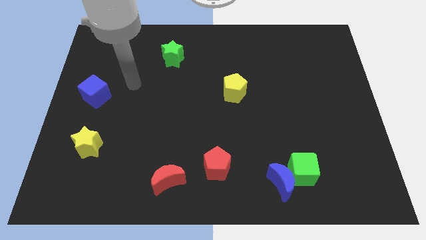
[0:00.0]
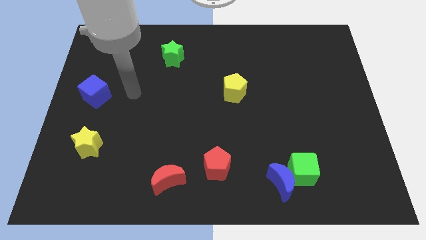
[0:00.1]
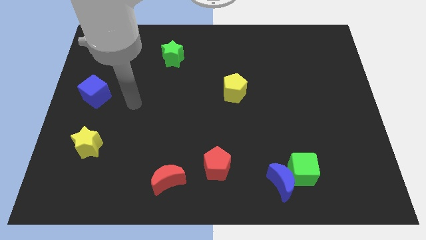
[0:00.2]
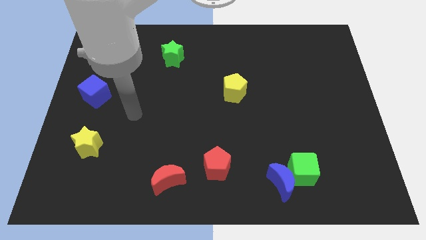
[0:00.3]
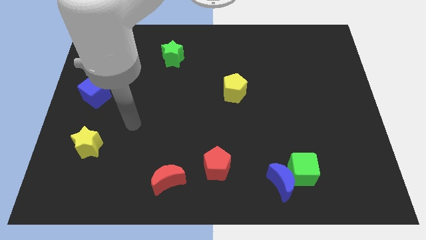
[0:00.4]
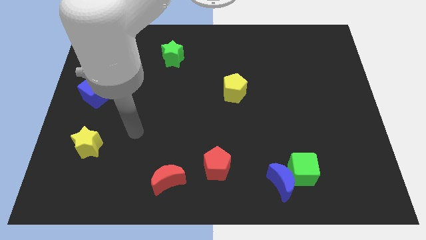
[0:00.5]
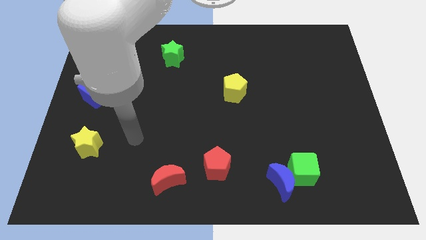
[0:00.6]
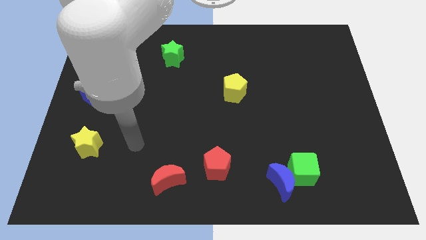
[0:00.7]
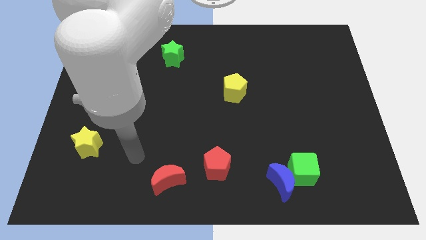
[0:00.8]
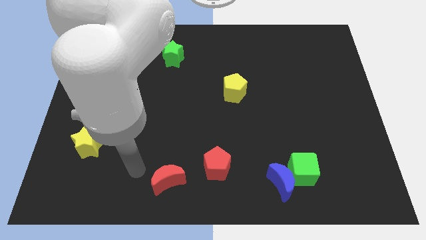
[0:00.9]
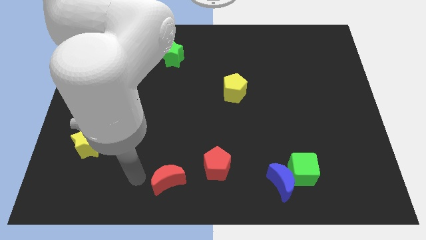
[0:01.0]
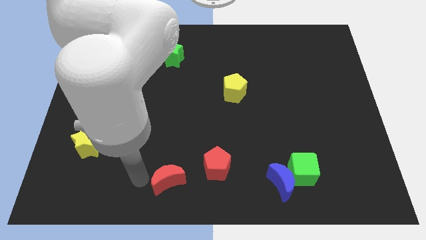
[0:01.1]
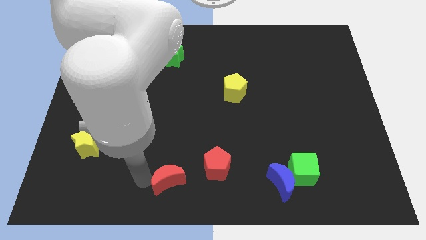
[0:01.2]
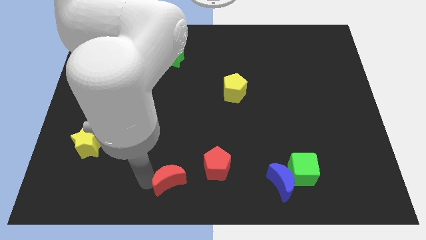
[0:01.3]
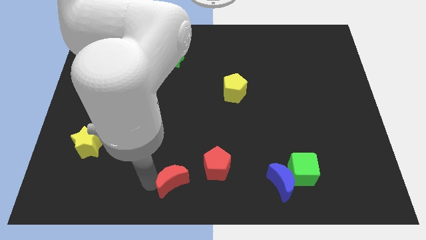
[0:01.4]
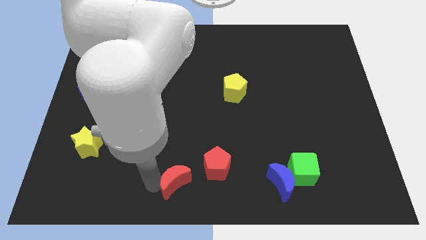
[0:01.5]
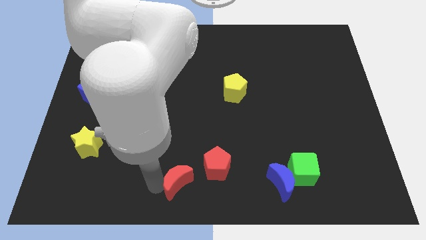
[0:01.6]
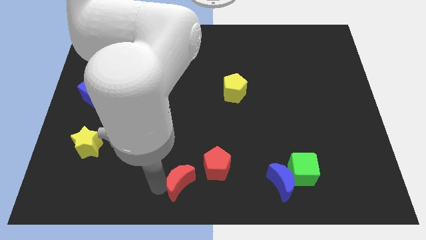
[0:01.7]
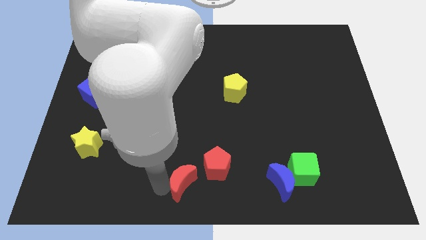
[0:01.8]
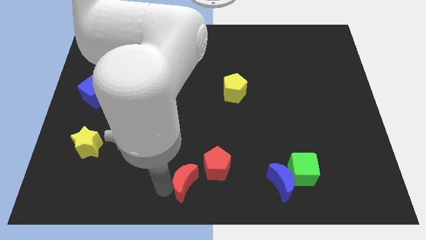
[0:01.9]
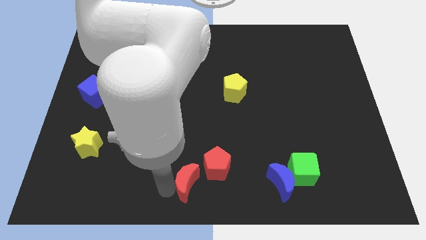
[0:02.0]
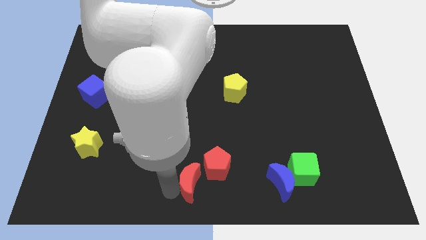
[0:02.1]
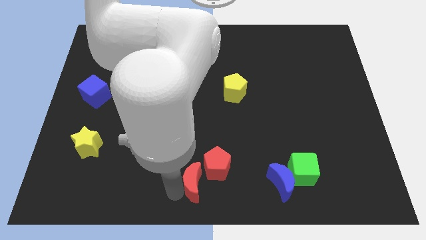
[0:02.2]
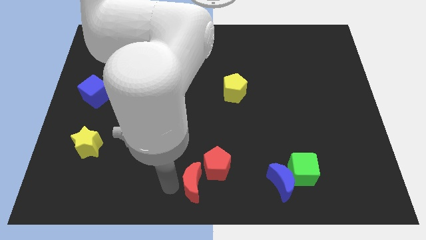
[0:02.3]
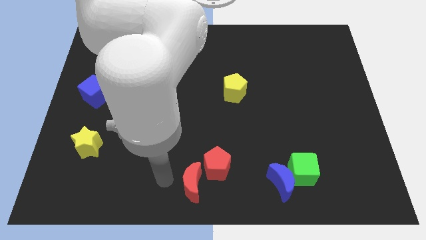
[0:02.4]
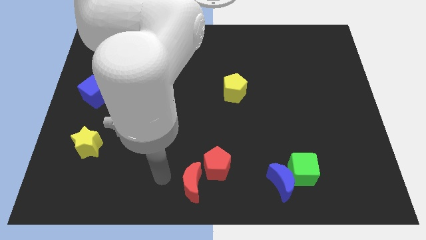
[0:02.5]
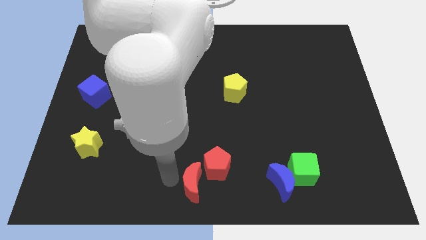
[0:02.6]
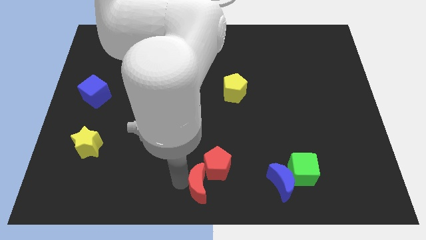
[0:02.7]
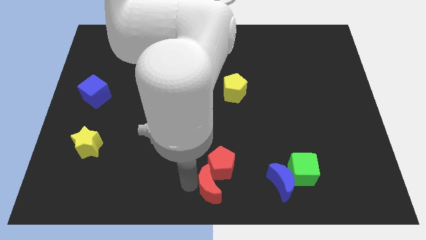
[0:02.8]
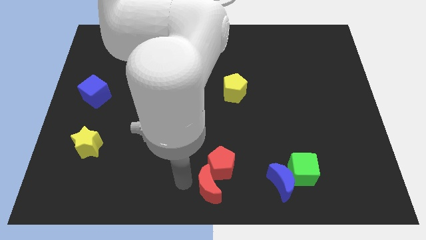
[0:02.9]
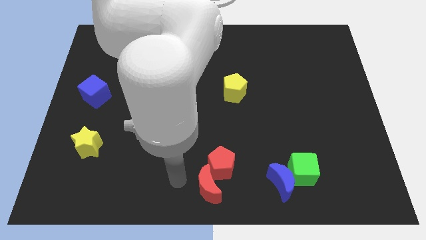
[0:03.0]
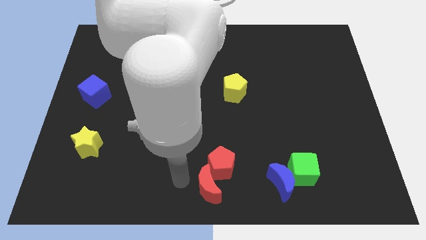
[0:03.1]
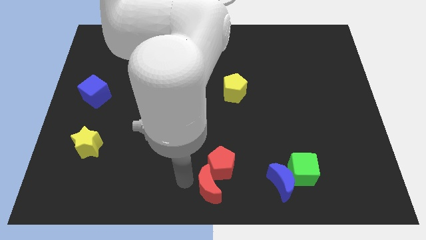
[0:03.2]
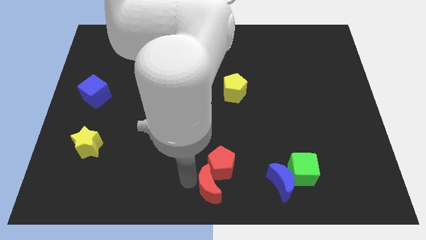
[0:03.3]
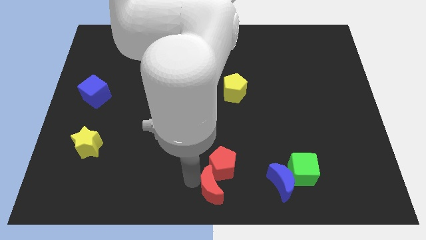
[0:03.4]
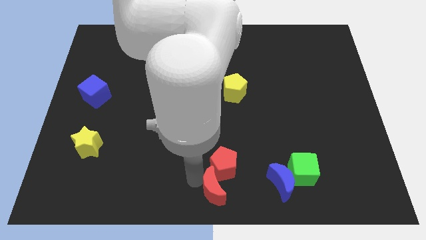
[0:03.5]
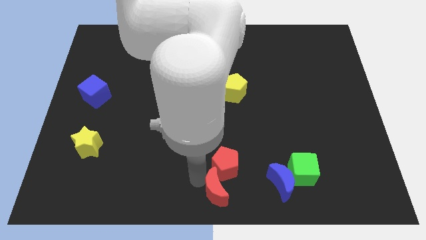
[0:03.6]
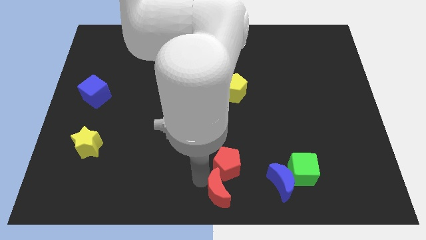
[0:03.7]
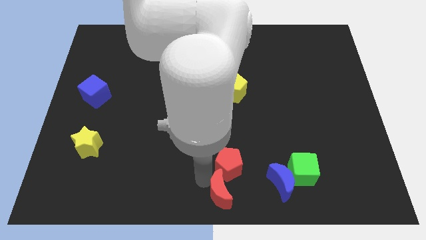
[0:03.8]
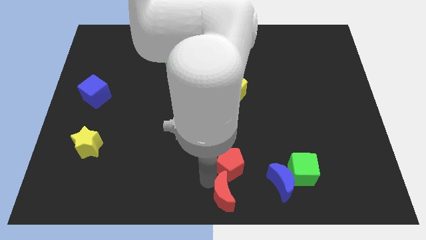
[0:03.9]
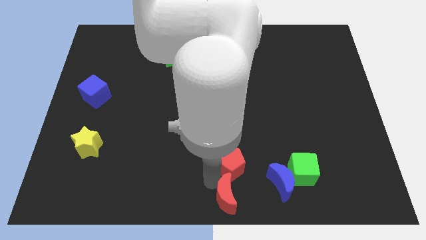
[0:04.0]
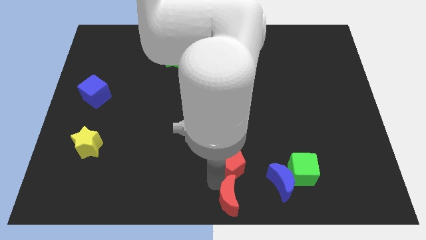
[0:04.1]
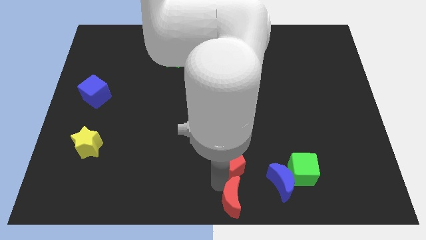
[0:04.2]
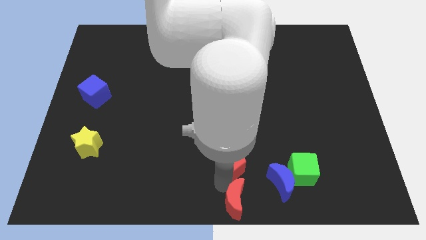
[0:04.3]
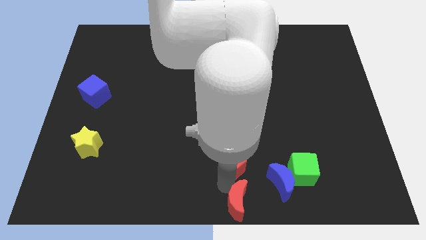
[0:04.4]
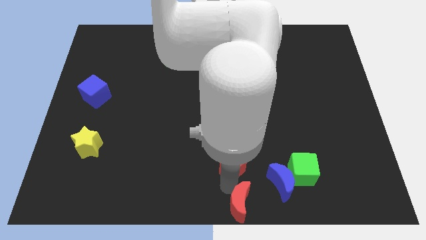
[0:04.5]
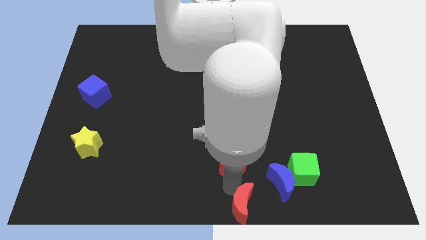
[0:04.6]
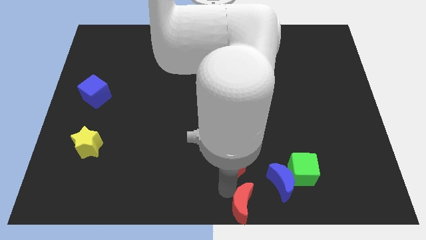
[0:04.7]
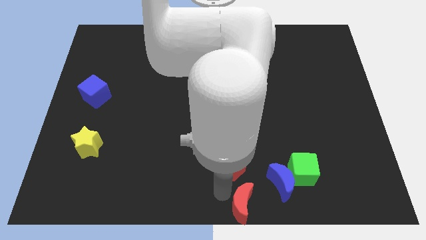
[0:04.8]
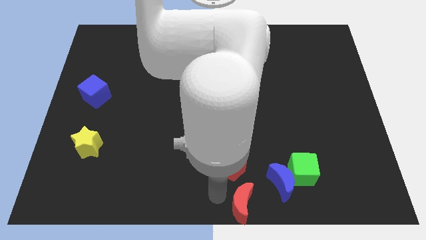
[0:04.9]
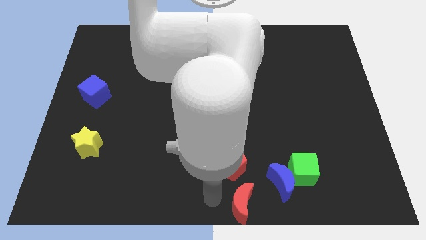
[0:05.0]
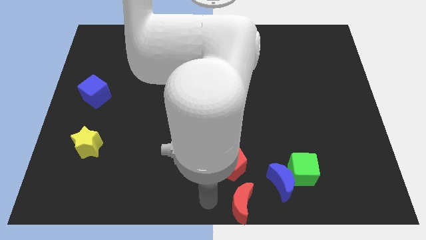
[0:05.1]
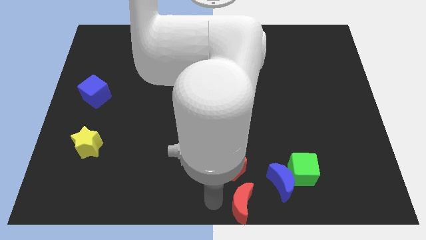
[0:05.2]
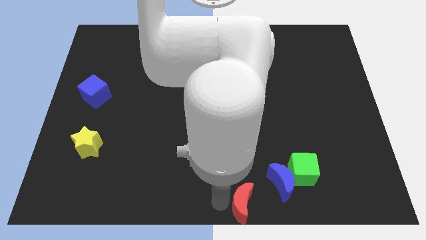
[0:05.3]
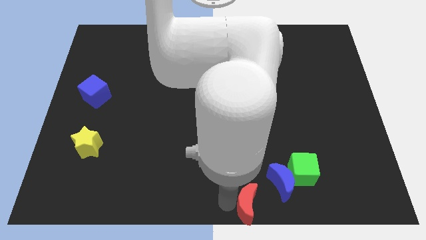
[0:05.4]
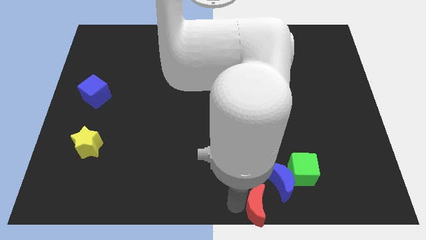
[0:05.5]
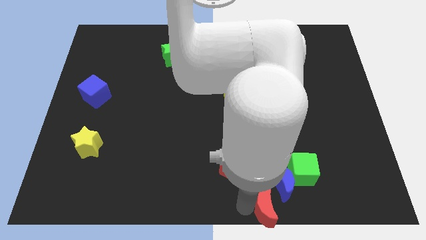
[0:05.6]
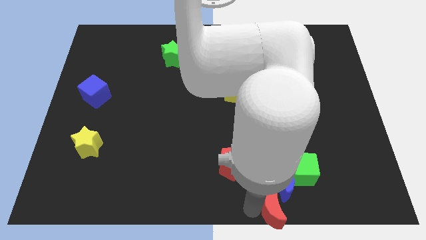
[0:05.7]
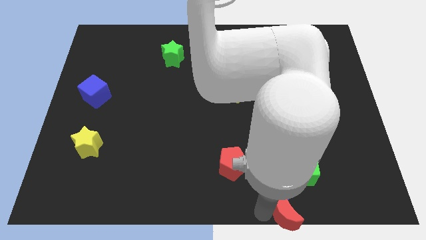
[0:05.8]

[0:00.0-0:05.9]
push the red moon right

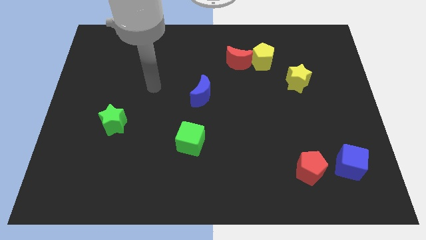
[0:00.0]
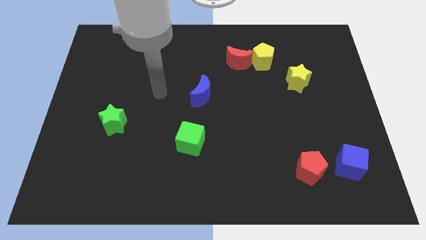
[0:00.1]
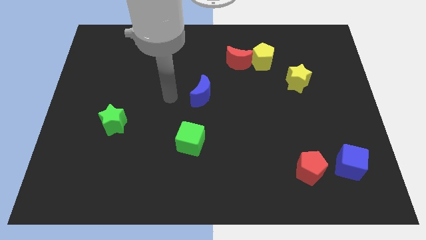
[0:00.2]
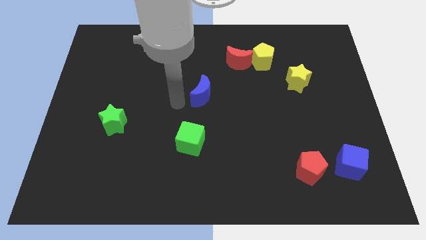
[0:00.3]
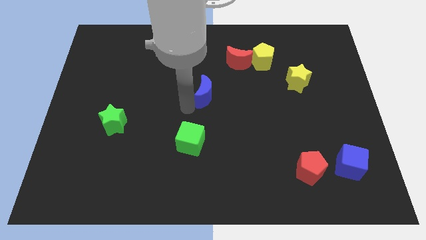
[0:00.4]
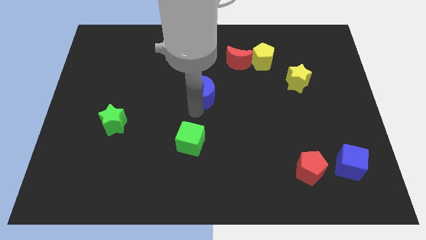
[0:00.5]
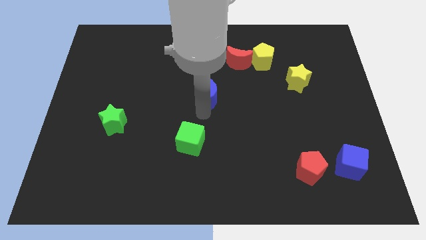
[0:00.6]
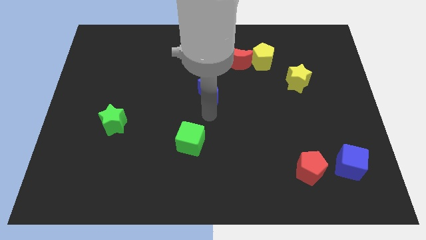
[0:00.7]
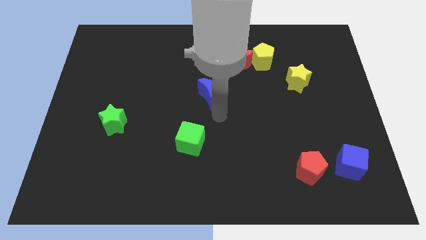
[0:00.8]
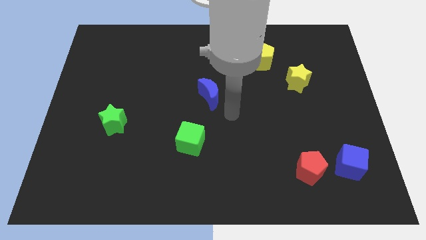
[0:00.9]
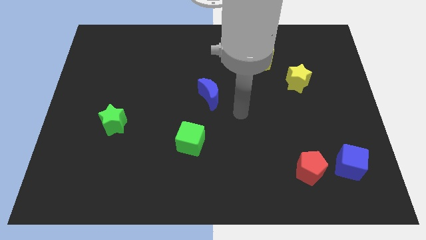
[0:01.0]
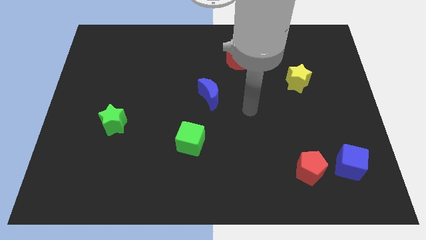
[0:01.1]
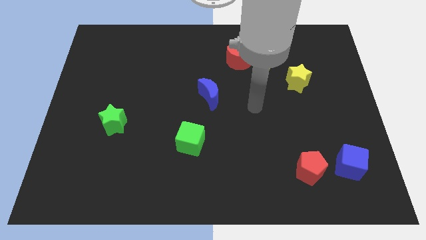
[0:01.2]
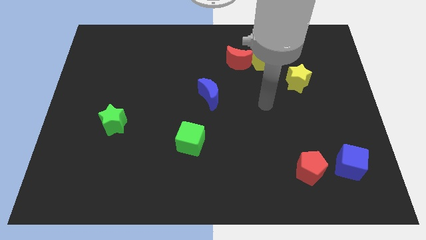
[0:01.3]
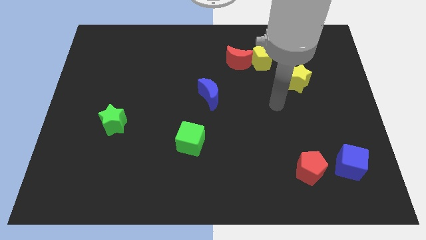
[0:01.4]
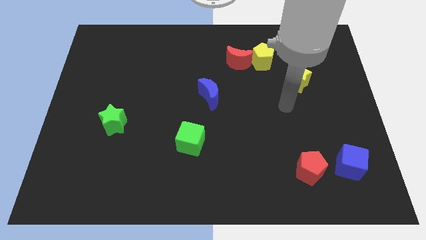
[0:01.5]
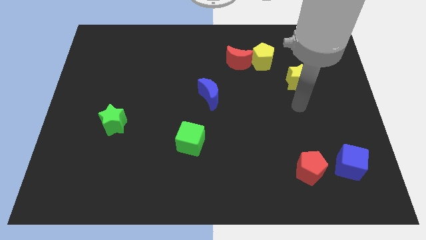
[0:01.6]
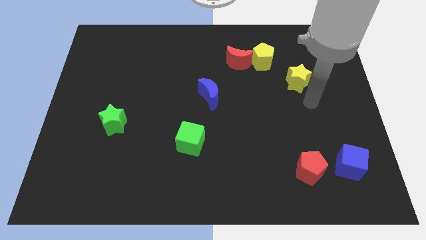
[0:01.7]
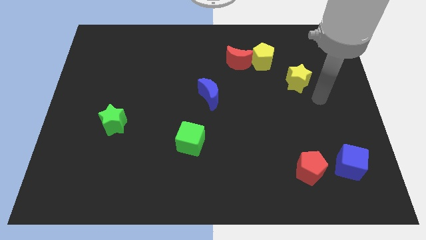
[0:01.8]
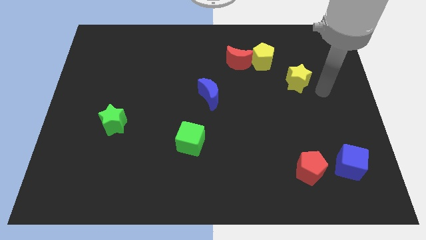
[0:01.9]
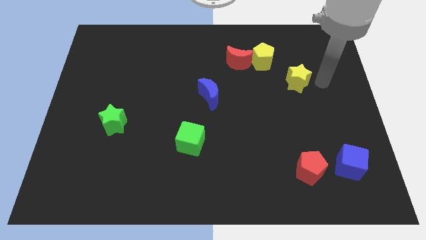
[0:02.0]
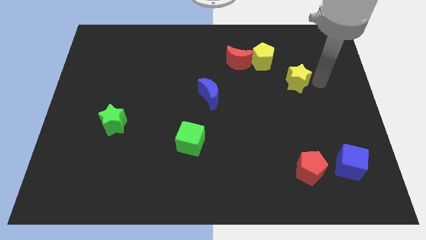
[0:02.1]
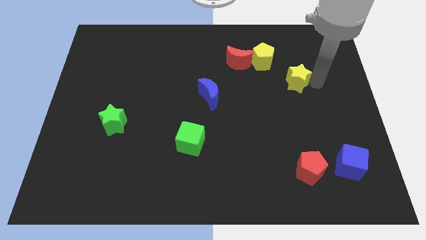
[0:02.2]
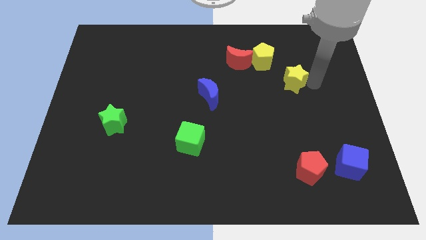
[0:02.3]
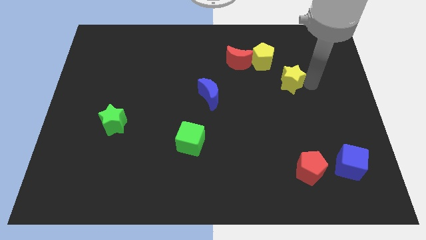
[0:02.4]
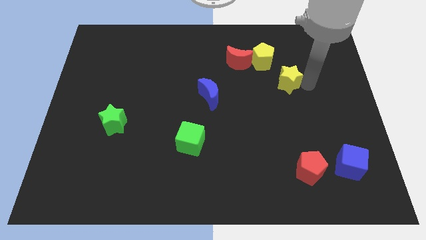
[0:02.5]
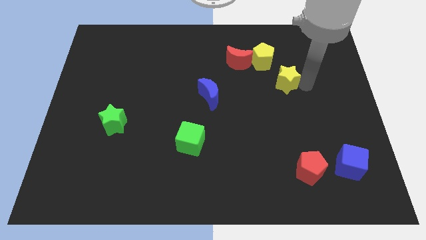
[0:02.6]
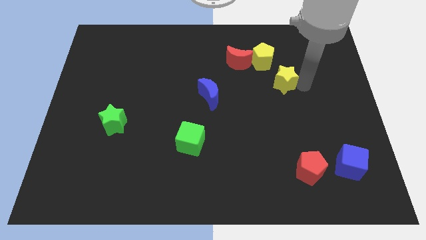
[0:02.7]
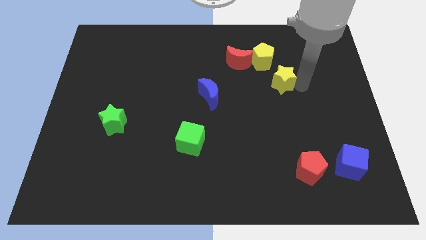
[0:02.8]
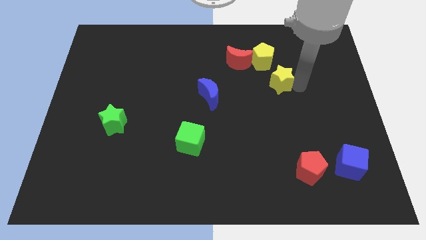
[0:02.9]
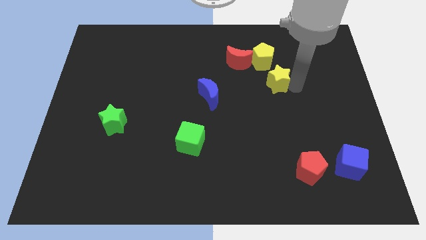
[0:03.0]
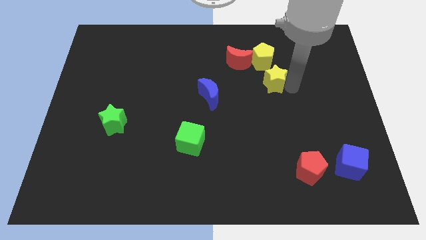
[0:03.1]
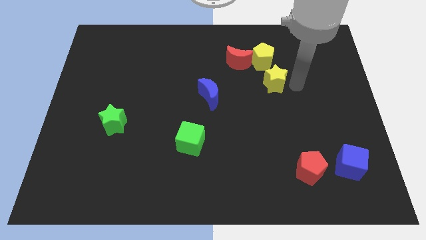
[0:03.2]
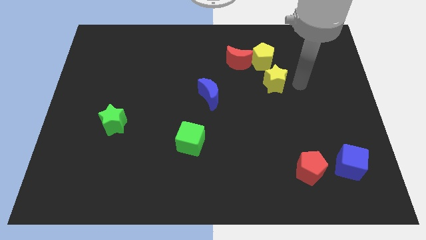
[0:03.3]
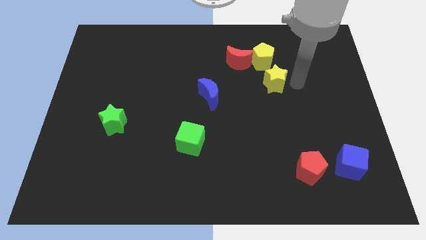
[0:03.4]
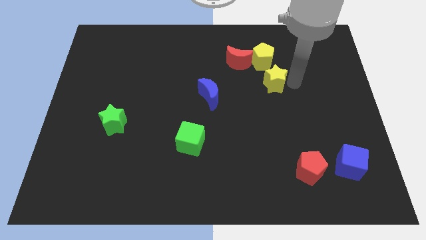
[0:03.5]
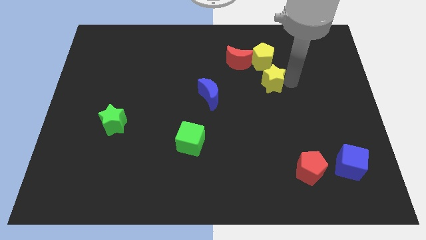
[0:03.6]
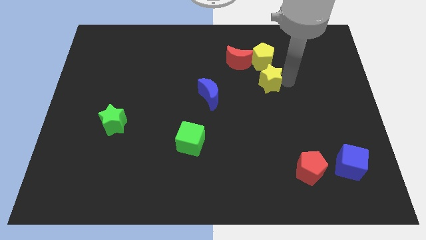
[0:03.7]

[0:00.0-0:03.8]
slightly push the yellow star to the left
